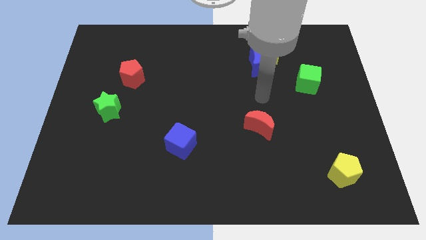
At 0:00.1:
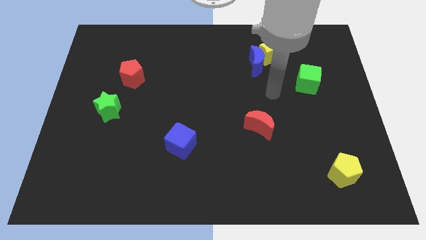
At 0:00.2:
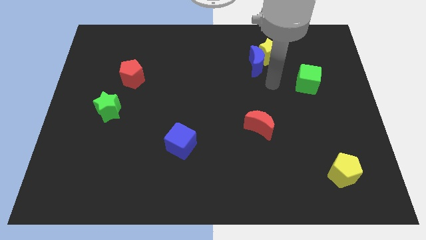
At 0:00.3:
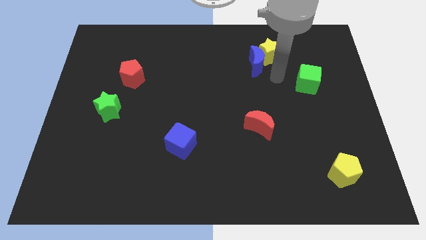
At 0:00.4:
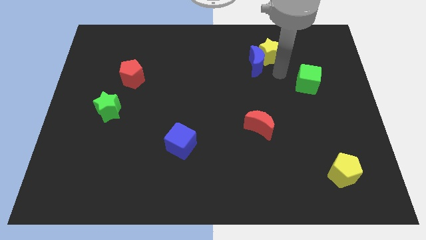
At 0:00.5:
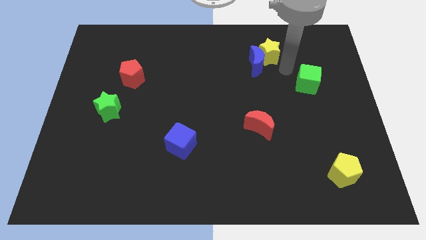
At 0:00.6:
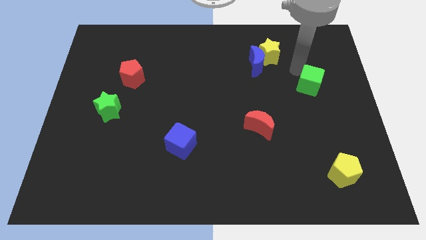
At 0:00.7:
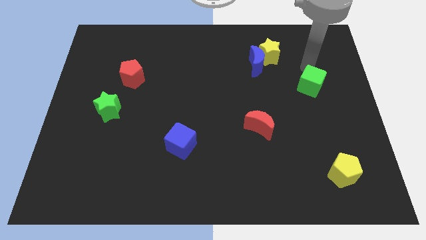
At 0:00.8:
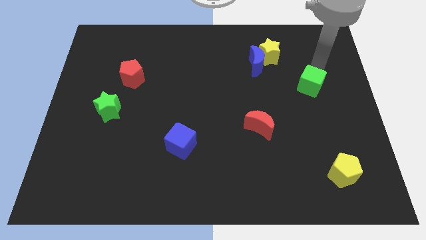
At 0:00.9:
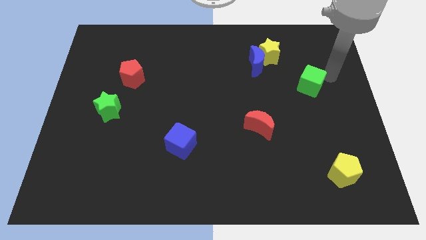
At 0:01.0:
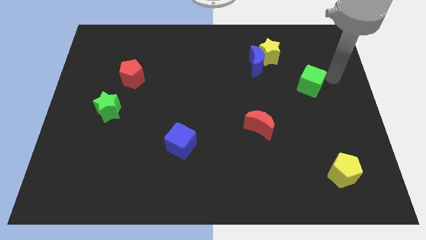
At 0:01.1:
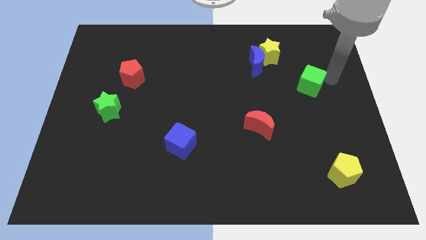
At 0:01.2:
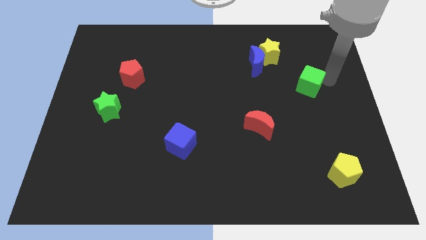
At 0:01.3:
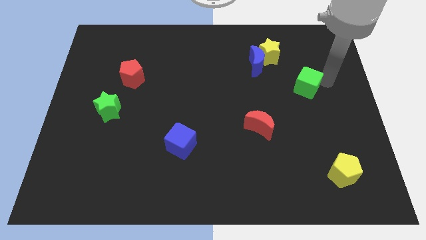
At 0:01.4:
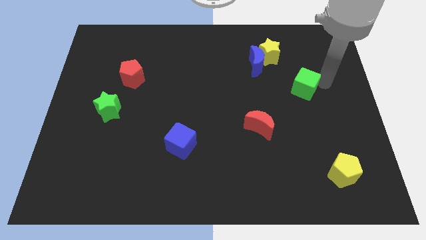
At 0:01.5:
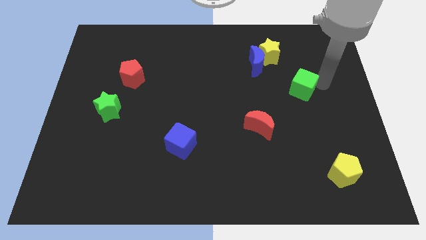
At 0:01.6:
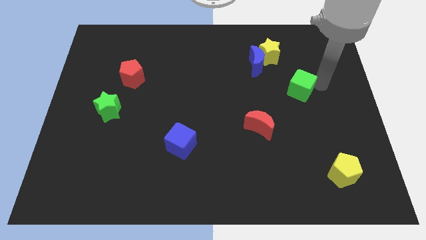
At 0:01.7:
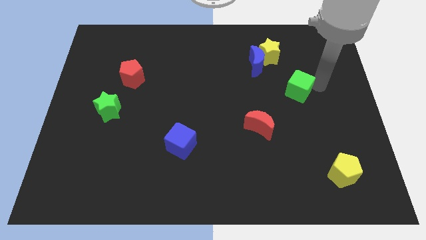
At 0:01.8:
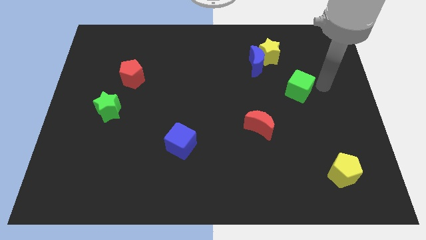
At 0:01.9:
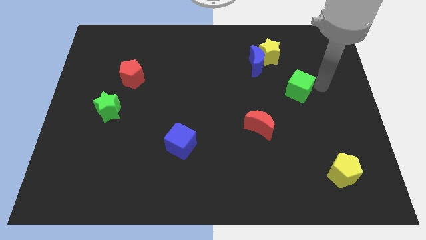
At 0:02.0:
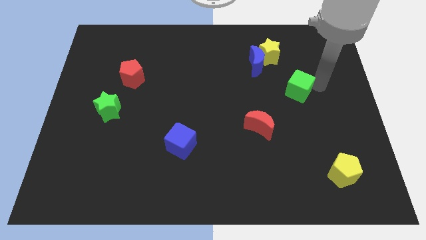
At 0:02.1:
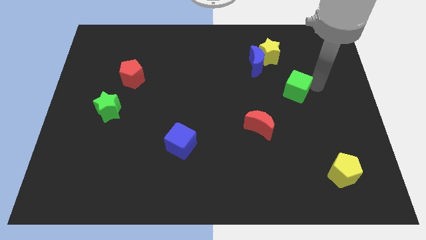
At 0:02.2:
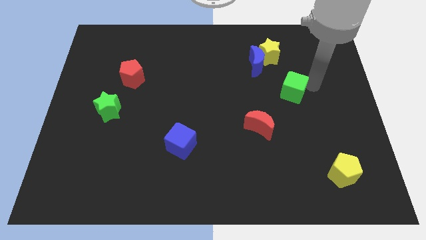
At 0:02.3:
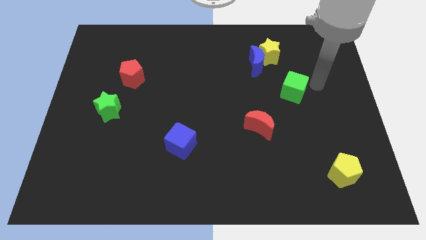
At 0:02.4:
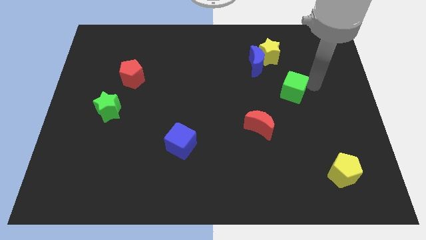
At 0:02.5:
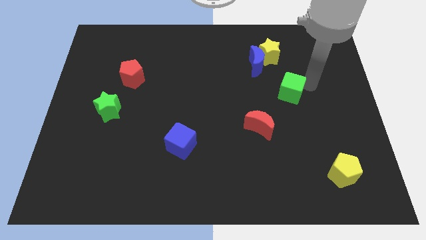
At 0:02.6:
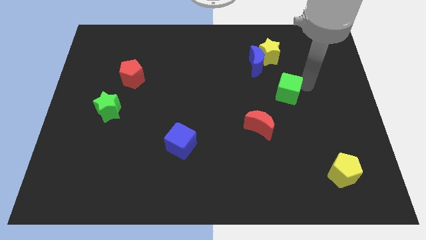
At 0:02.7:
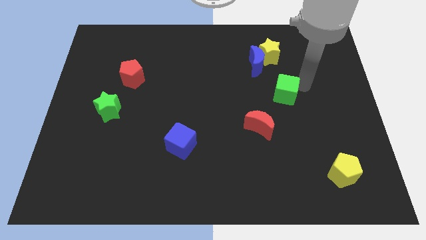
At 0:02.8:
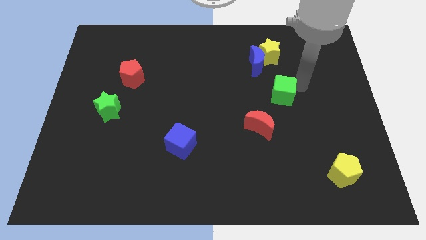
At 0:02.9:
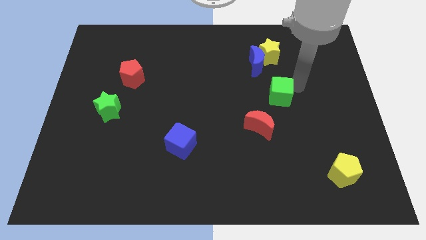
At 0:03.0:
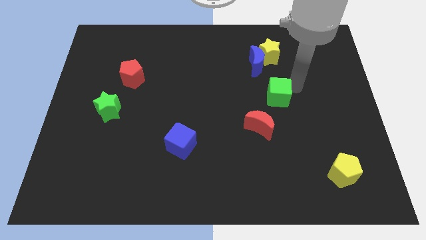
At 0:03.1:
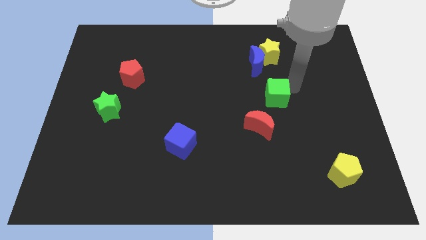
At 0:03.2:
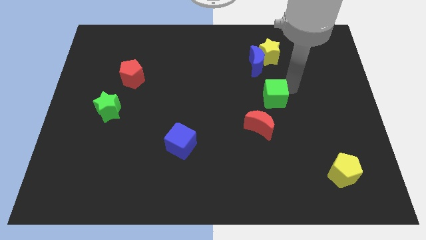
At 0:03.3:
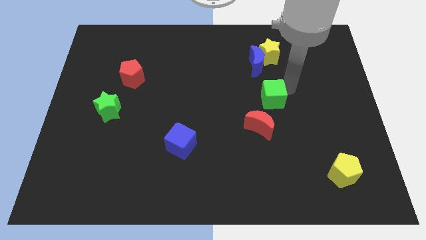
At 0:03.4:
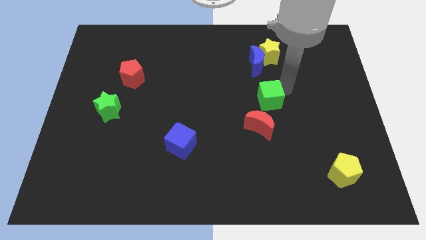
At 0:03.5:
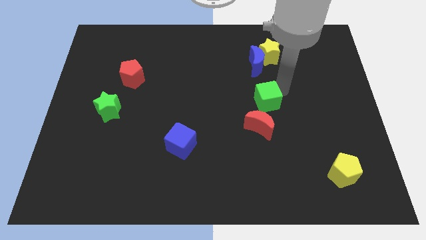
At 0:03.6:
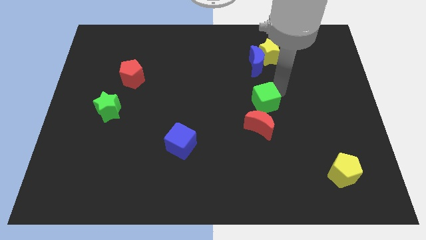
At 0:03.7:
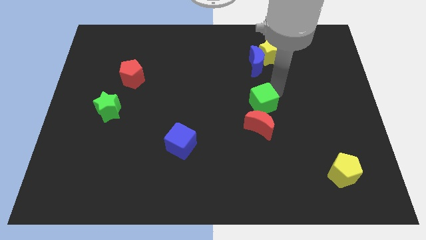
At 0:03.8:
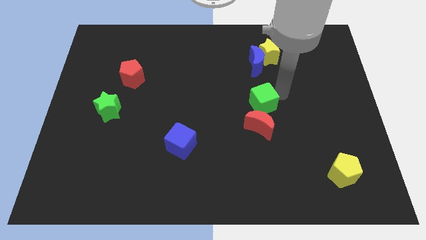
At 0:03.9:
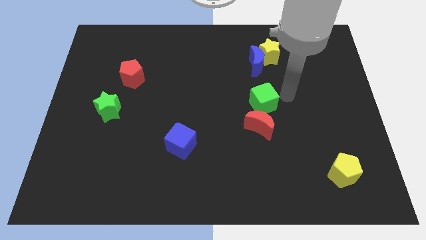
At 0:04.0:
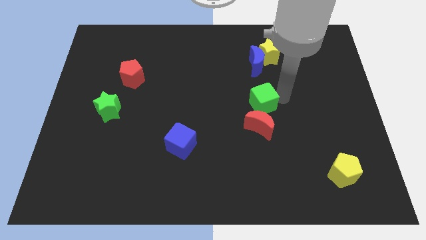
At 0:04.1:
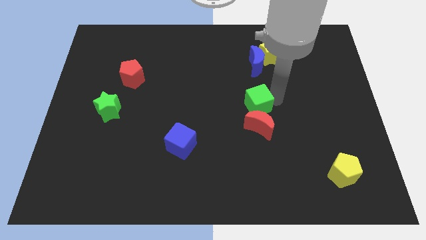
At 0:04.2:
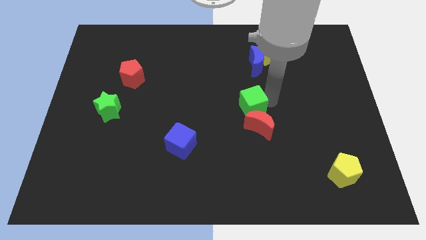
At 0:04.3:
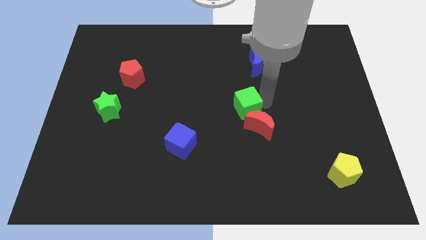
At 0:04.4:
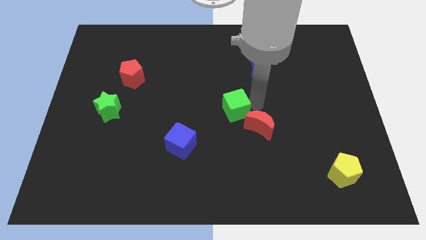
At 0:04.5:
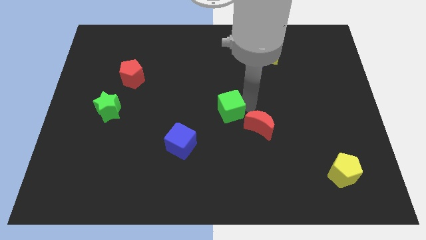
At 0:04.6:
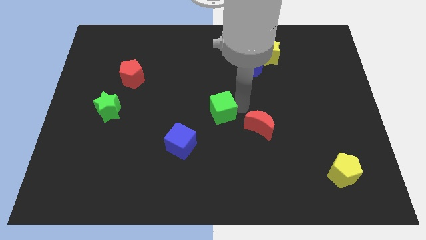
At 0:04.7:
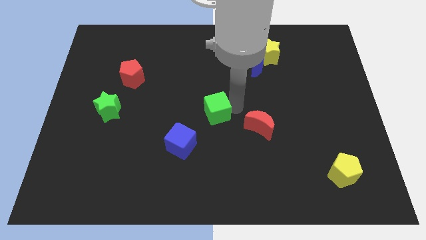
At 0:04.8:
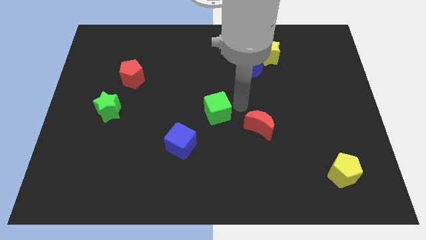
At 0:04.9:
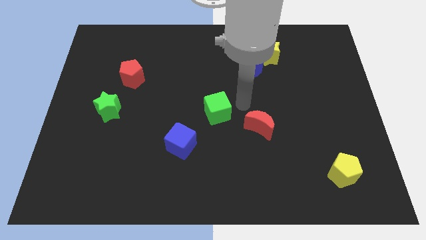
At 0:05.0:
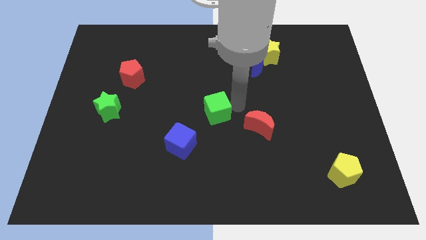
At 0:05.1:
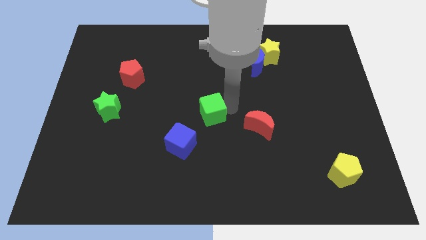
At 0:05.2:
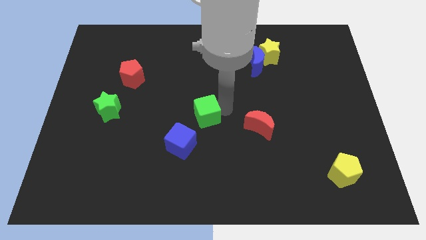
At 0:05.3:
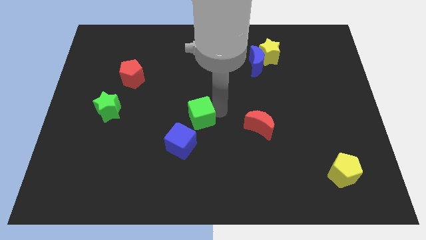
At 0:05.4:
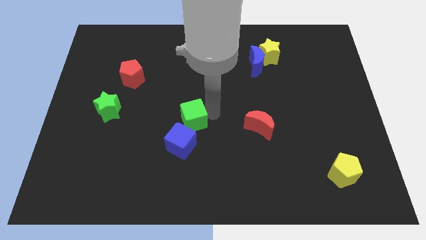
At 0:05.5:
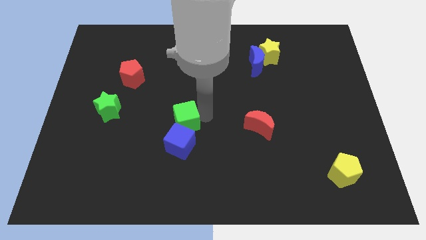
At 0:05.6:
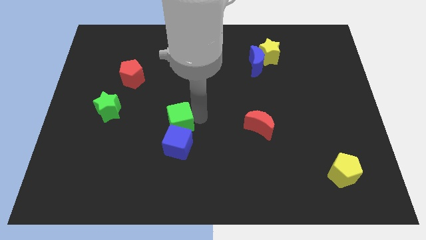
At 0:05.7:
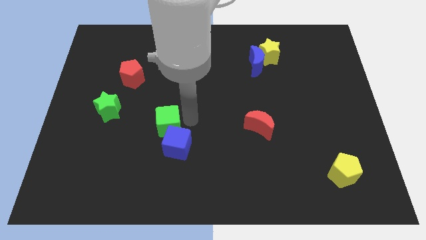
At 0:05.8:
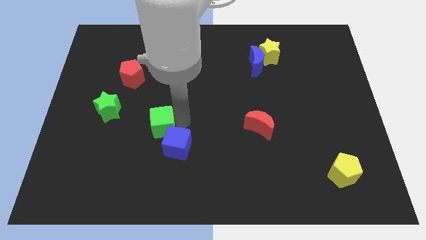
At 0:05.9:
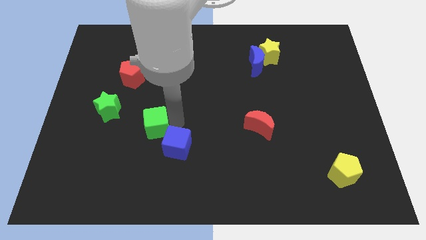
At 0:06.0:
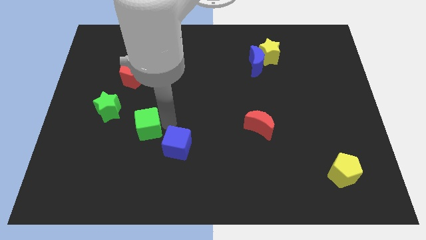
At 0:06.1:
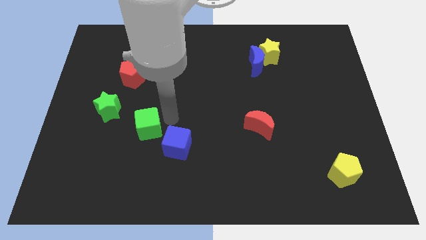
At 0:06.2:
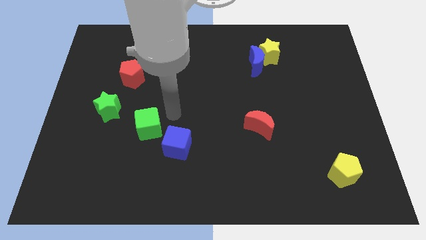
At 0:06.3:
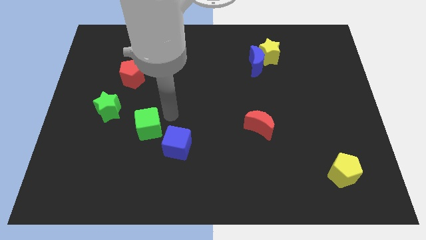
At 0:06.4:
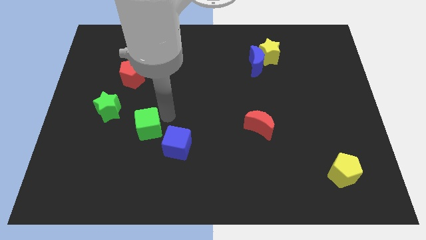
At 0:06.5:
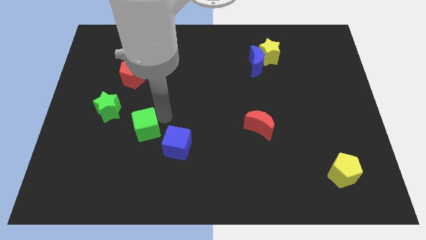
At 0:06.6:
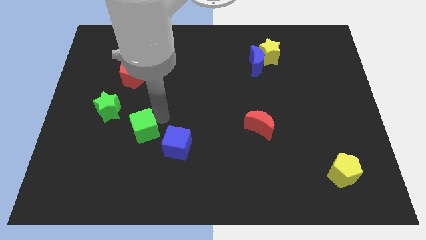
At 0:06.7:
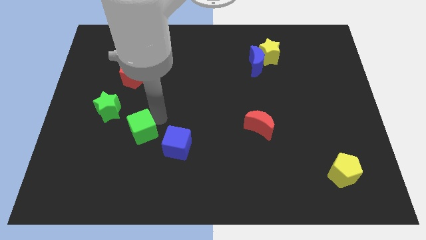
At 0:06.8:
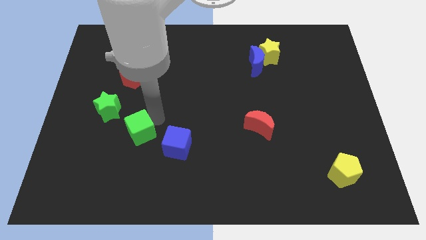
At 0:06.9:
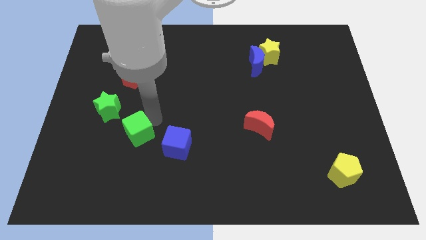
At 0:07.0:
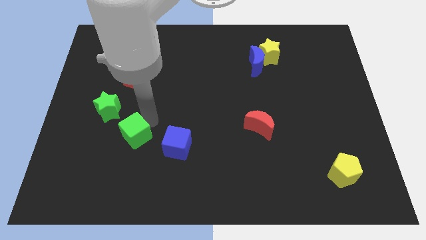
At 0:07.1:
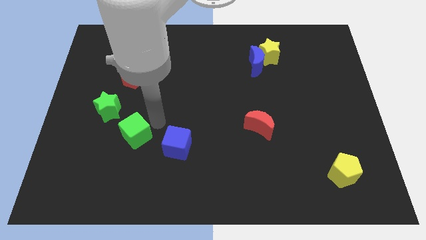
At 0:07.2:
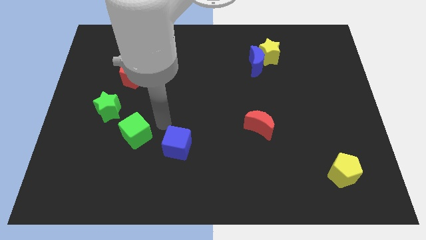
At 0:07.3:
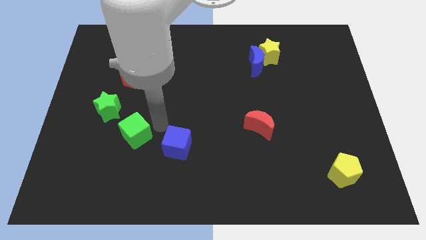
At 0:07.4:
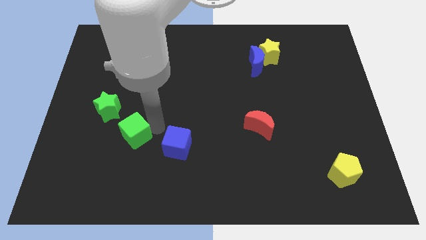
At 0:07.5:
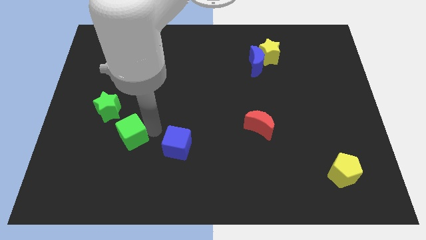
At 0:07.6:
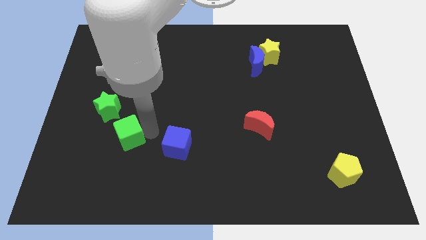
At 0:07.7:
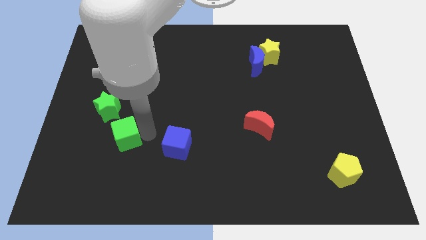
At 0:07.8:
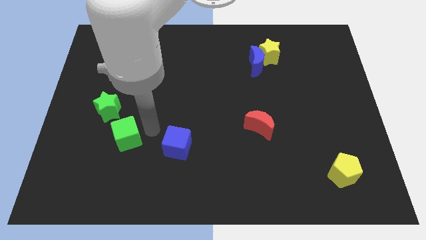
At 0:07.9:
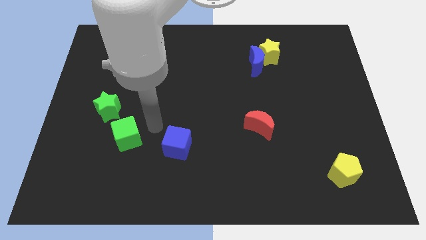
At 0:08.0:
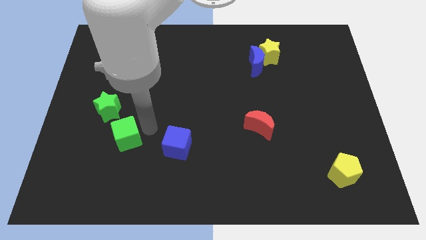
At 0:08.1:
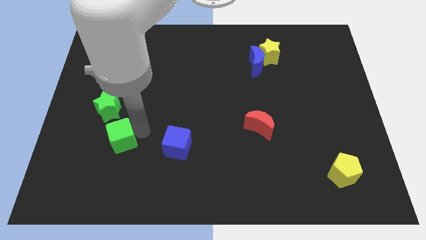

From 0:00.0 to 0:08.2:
put the green cube below the green star
